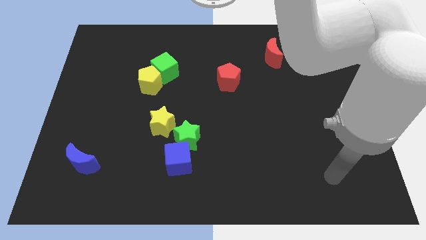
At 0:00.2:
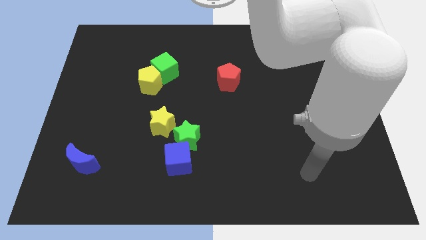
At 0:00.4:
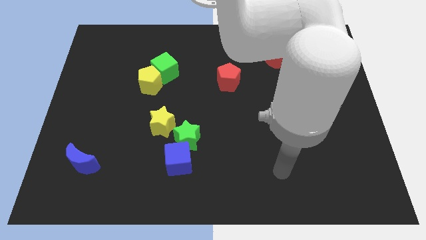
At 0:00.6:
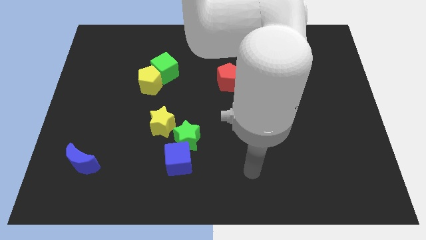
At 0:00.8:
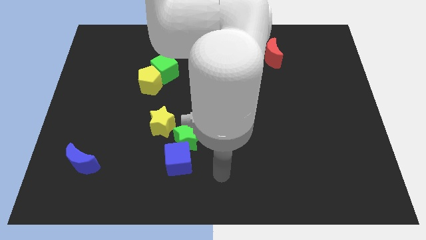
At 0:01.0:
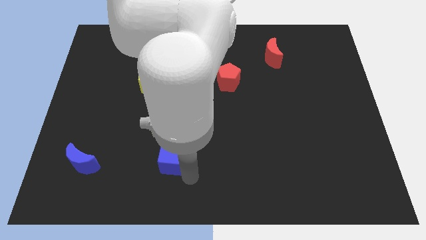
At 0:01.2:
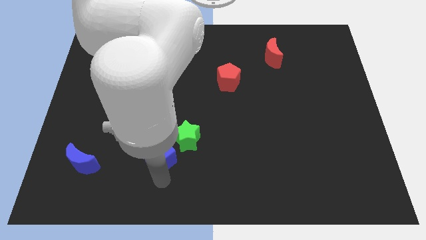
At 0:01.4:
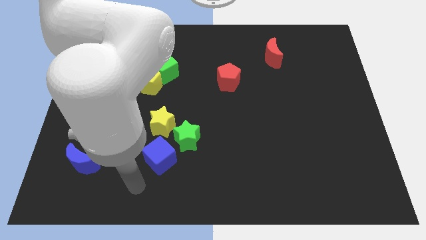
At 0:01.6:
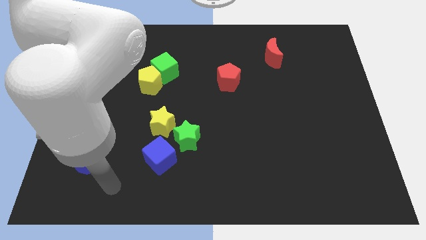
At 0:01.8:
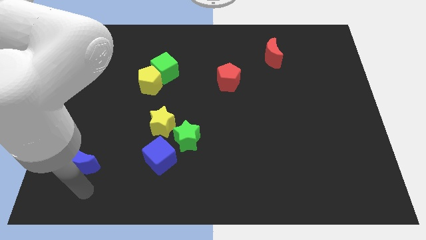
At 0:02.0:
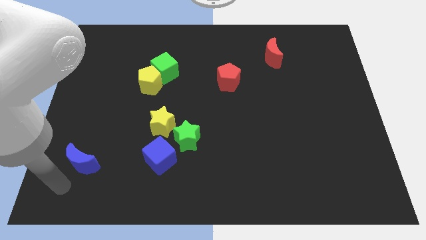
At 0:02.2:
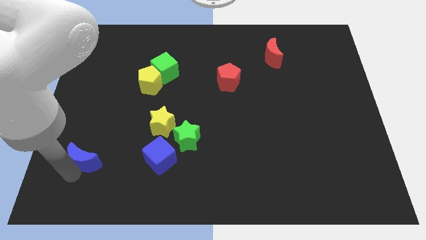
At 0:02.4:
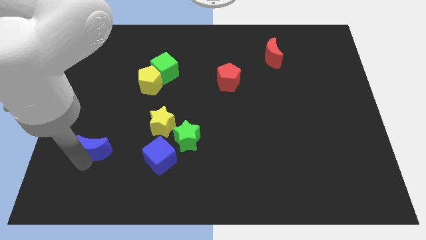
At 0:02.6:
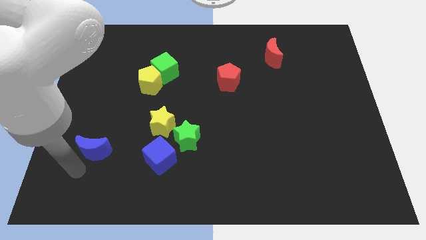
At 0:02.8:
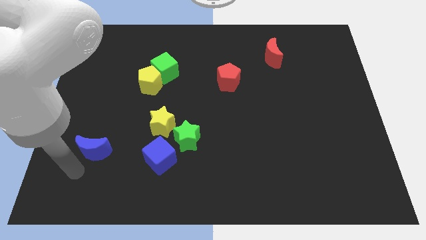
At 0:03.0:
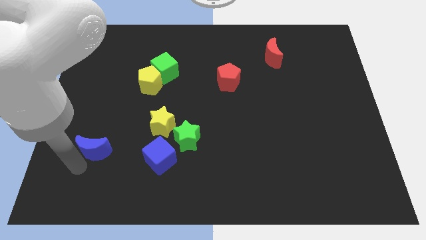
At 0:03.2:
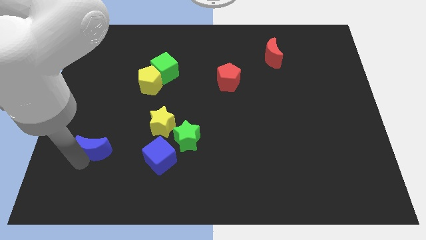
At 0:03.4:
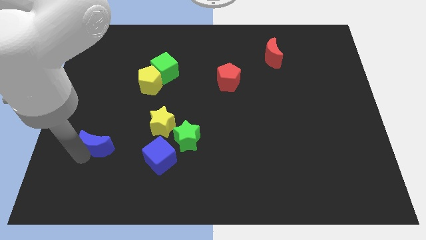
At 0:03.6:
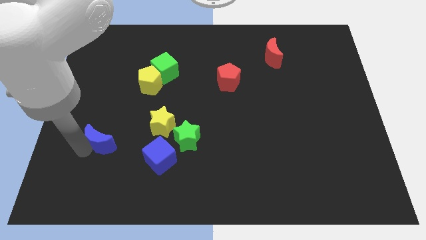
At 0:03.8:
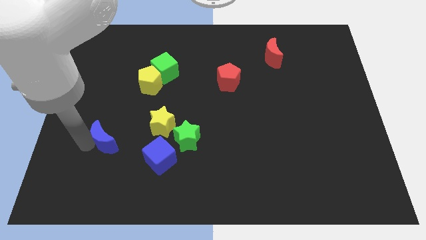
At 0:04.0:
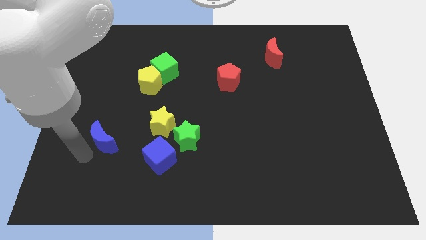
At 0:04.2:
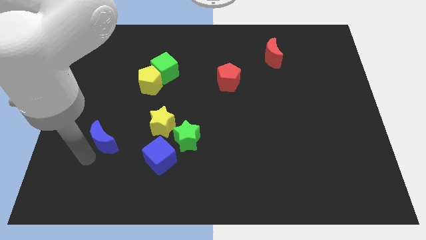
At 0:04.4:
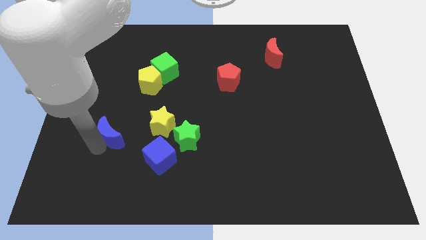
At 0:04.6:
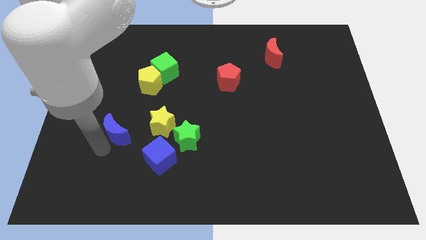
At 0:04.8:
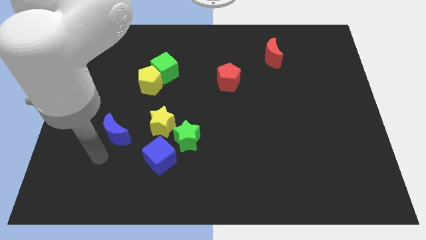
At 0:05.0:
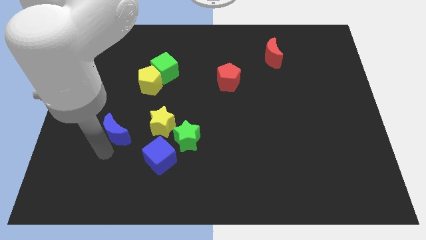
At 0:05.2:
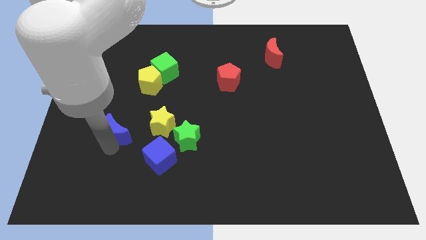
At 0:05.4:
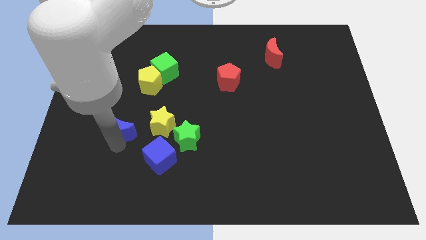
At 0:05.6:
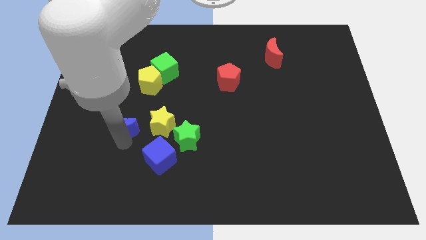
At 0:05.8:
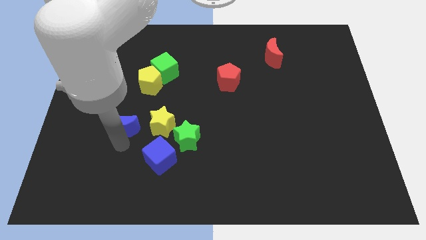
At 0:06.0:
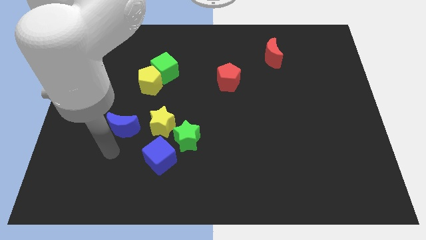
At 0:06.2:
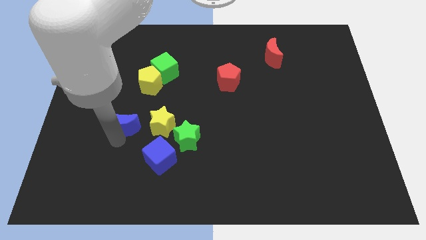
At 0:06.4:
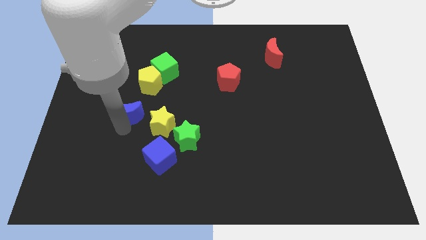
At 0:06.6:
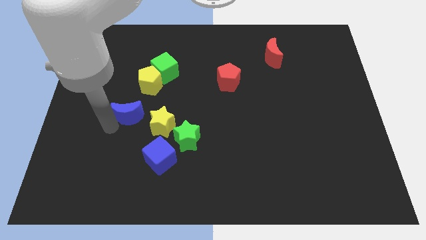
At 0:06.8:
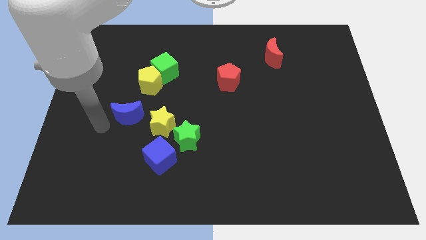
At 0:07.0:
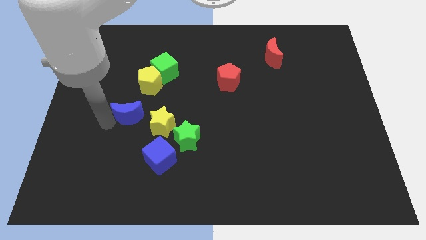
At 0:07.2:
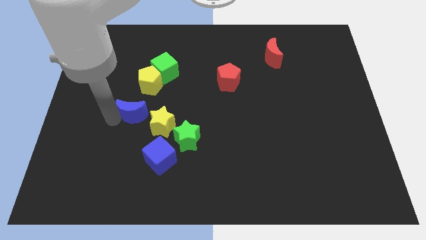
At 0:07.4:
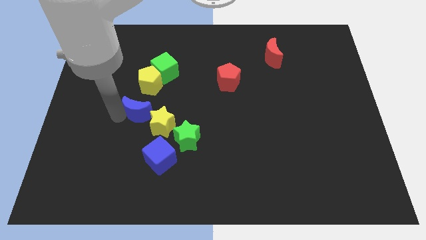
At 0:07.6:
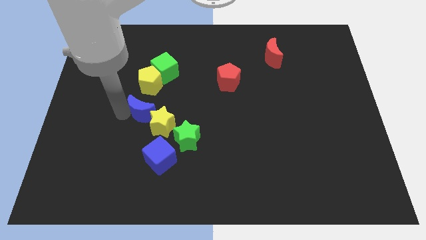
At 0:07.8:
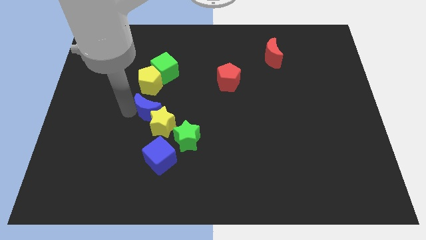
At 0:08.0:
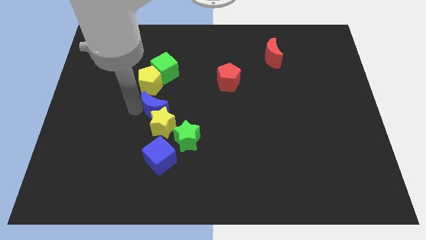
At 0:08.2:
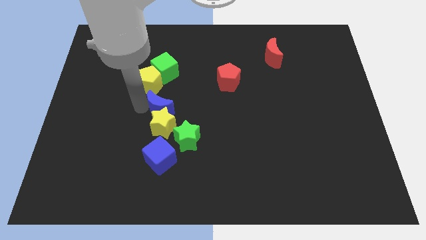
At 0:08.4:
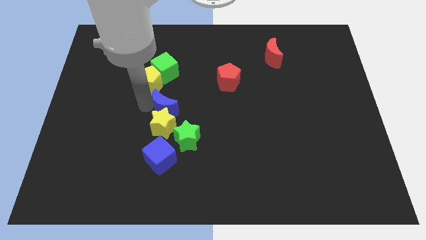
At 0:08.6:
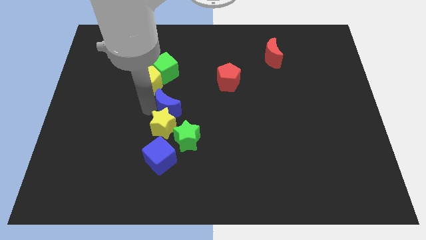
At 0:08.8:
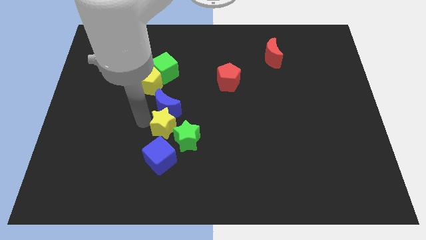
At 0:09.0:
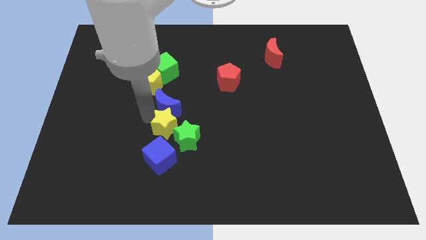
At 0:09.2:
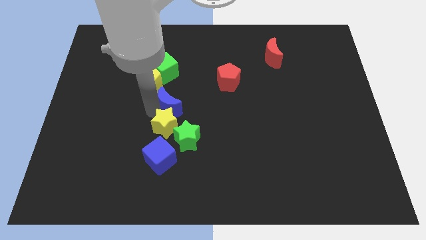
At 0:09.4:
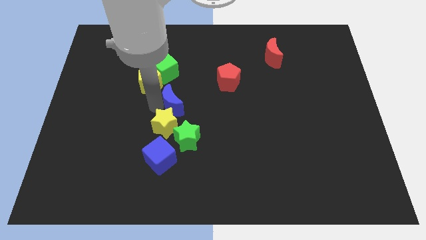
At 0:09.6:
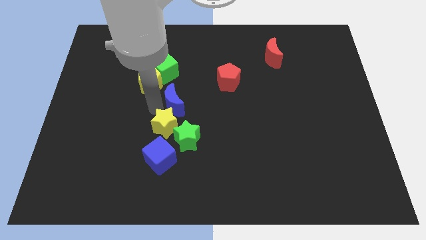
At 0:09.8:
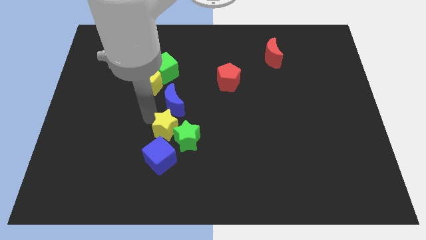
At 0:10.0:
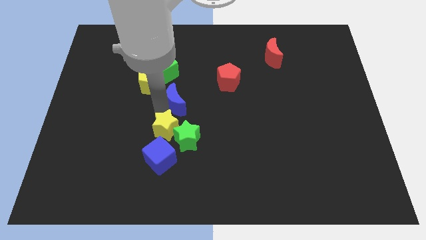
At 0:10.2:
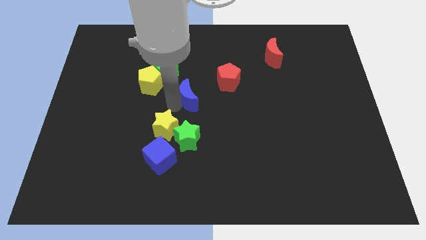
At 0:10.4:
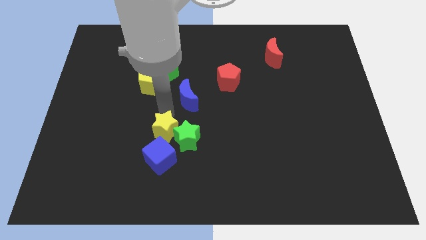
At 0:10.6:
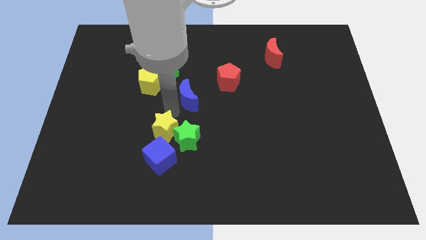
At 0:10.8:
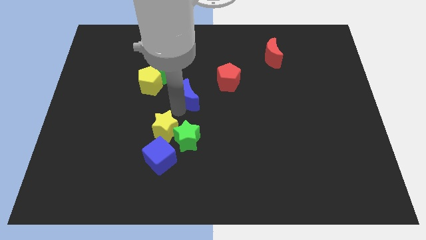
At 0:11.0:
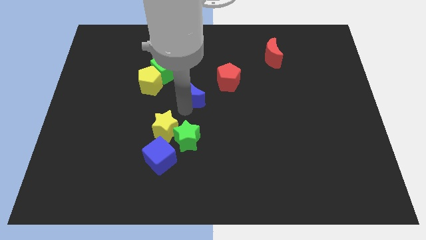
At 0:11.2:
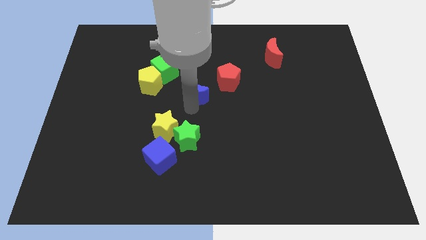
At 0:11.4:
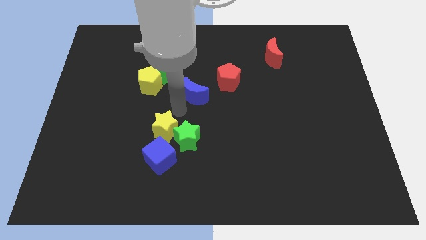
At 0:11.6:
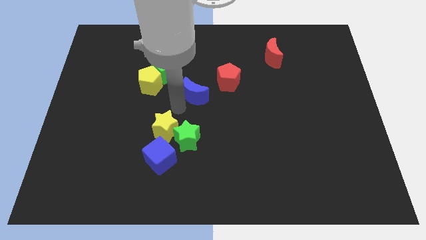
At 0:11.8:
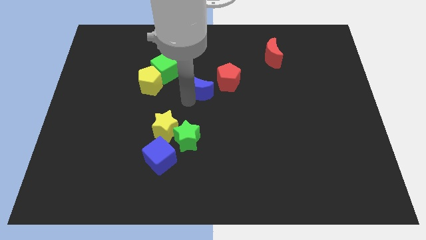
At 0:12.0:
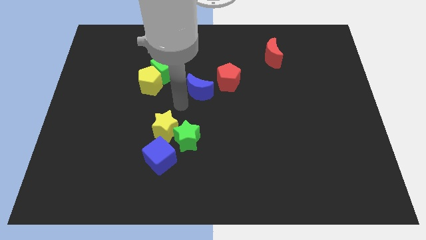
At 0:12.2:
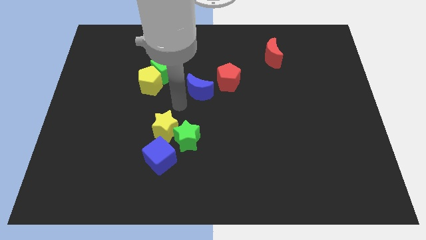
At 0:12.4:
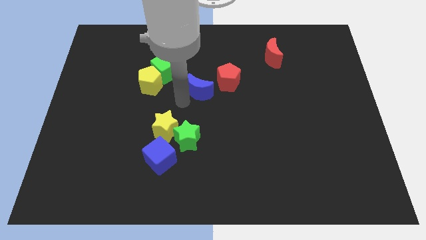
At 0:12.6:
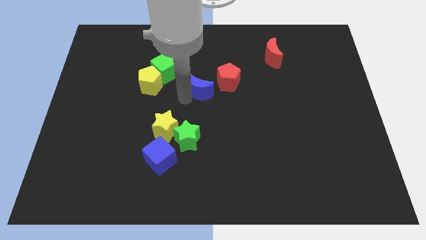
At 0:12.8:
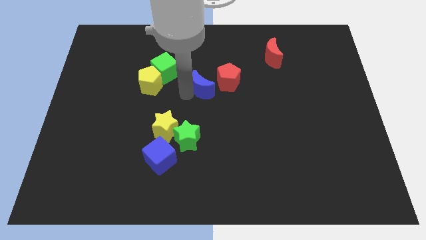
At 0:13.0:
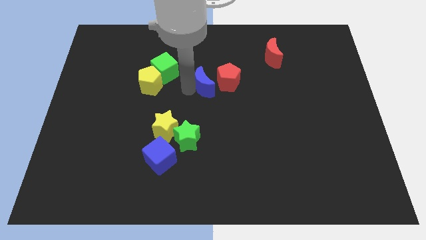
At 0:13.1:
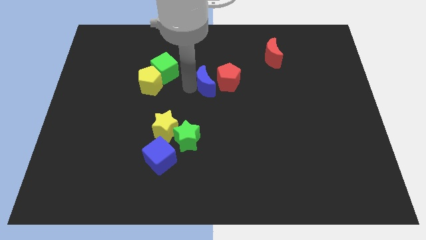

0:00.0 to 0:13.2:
move the blue moon towards the red pentagon

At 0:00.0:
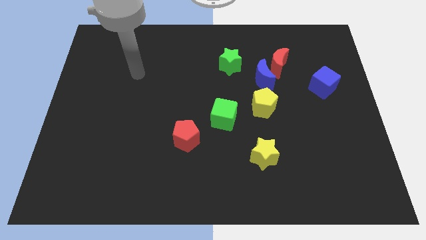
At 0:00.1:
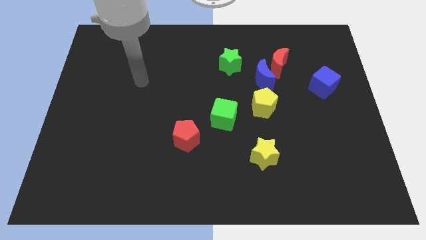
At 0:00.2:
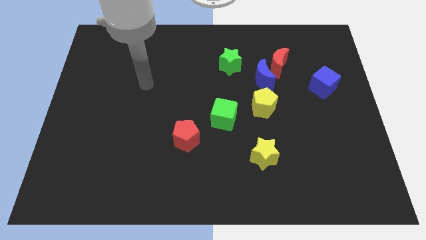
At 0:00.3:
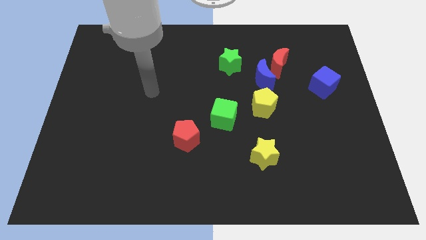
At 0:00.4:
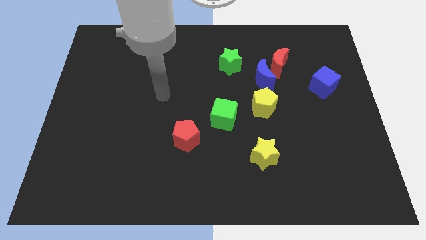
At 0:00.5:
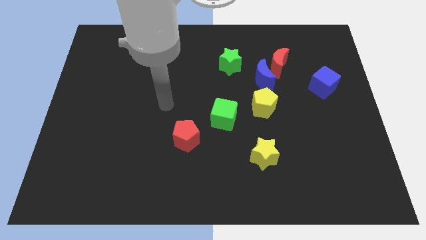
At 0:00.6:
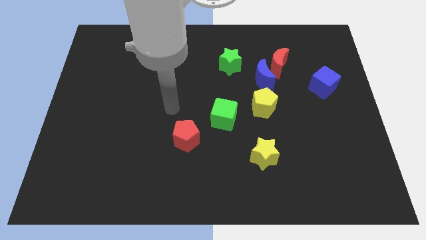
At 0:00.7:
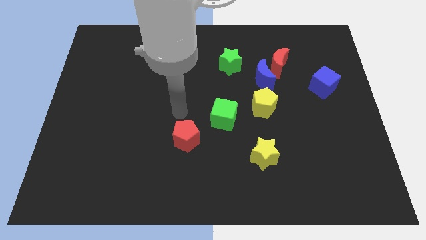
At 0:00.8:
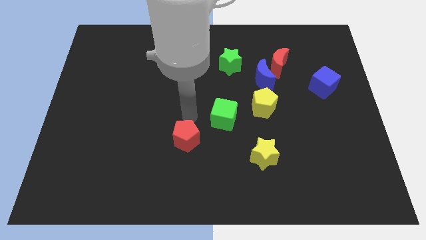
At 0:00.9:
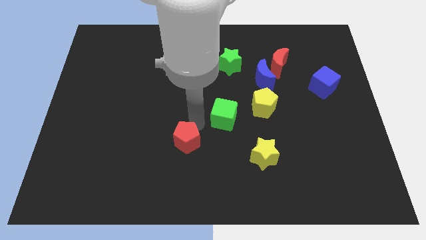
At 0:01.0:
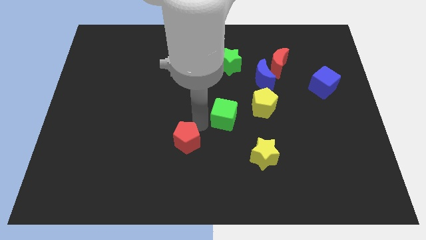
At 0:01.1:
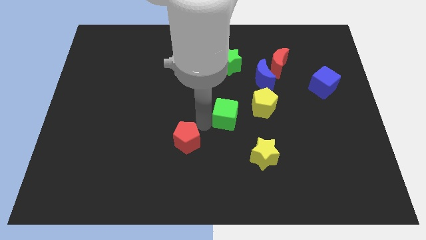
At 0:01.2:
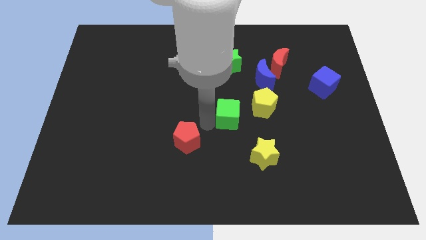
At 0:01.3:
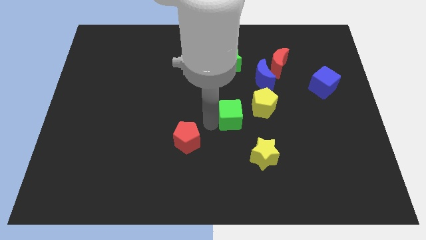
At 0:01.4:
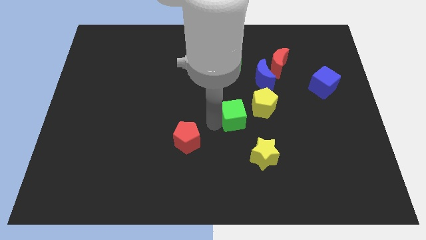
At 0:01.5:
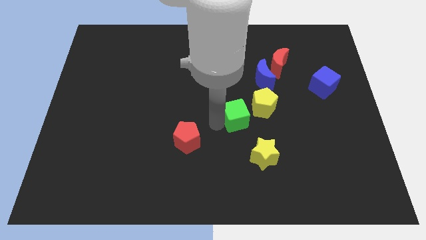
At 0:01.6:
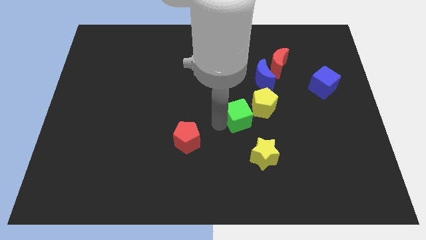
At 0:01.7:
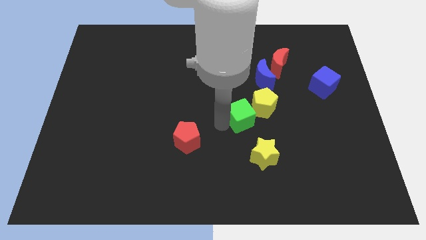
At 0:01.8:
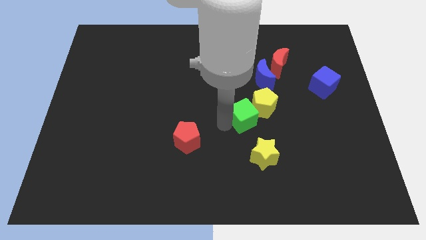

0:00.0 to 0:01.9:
slide the green cube close to the yellow pentagon
